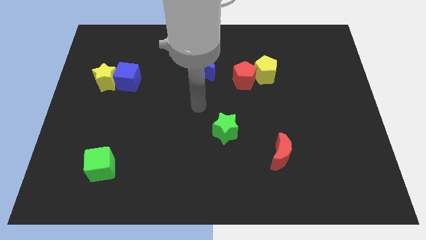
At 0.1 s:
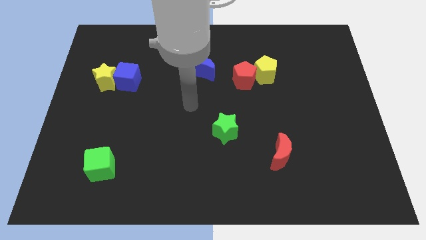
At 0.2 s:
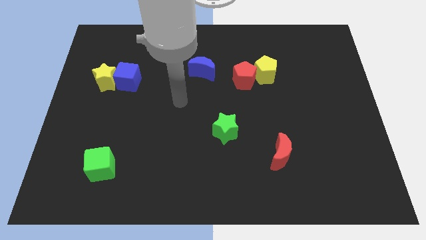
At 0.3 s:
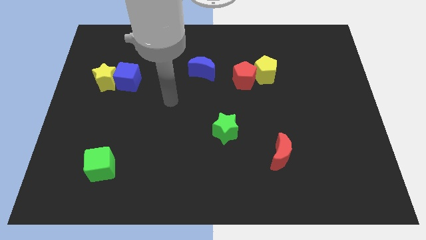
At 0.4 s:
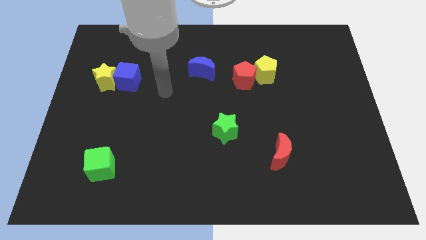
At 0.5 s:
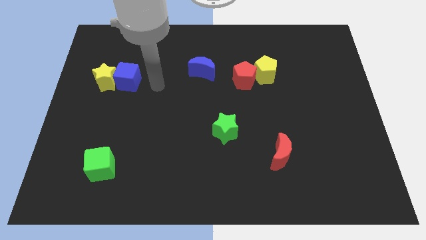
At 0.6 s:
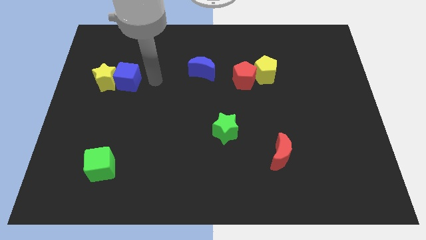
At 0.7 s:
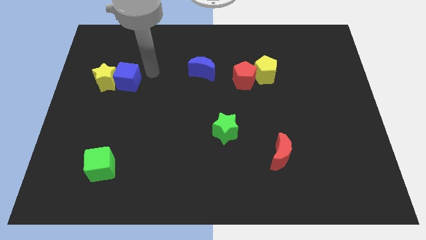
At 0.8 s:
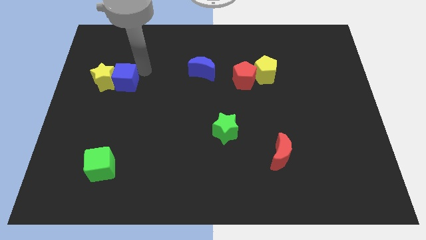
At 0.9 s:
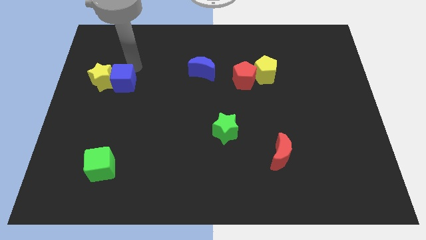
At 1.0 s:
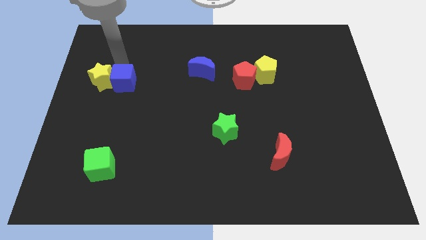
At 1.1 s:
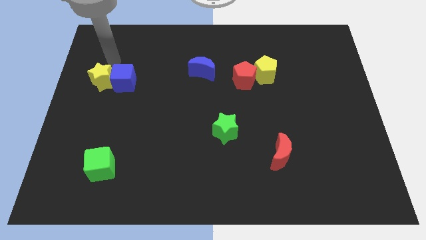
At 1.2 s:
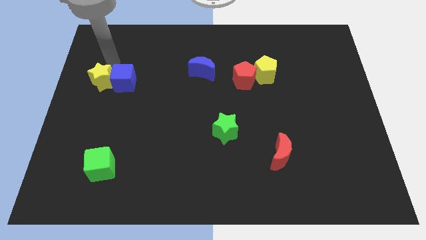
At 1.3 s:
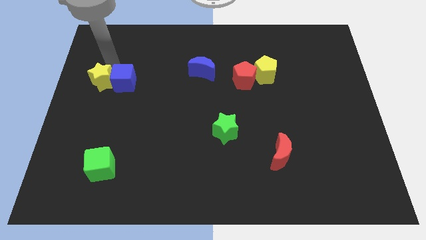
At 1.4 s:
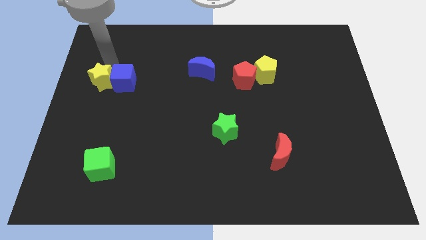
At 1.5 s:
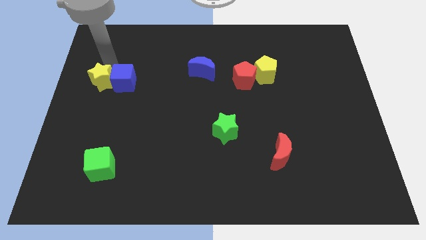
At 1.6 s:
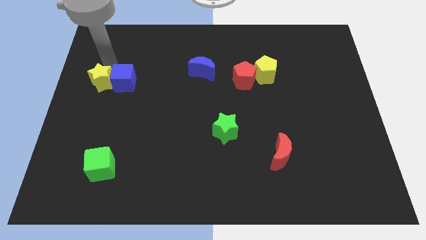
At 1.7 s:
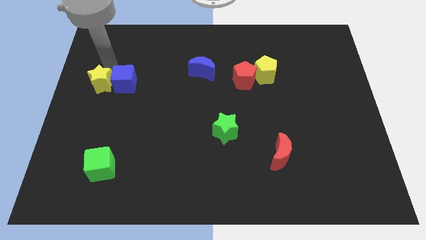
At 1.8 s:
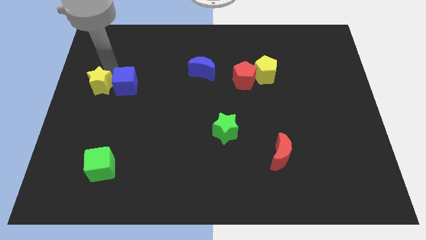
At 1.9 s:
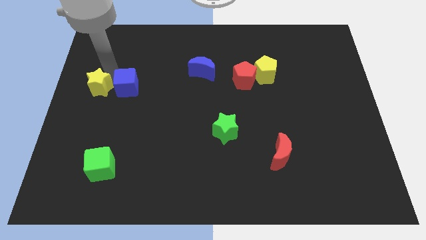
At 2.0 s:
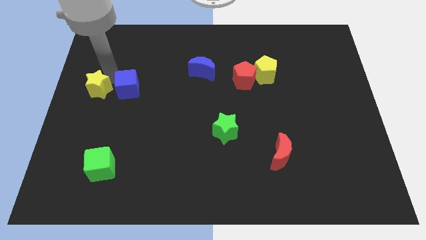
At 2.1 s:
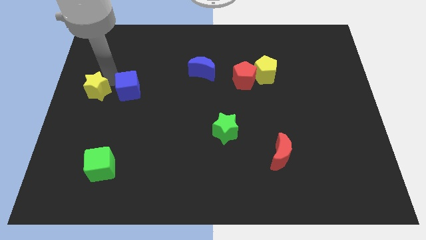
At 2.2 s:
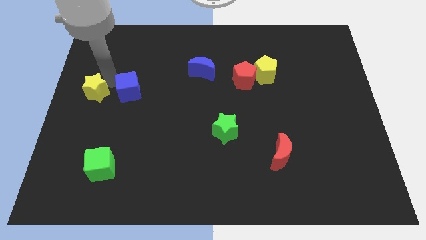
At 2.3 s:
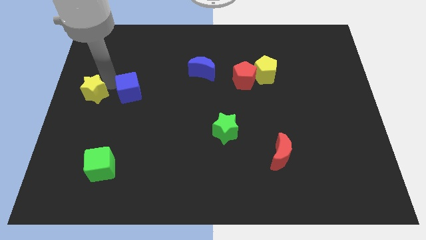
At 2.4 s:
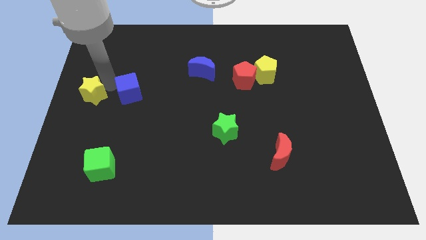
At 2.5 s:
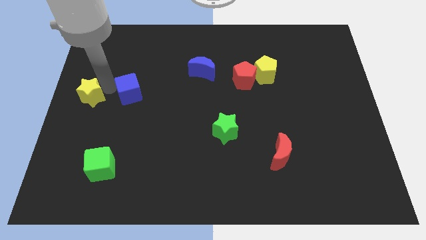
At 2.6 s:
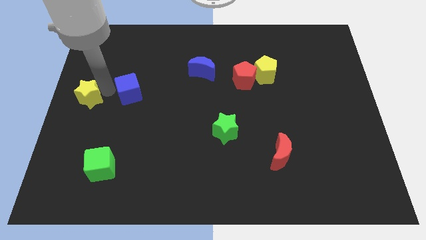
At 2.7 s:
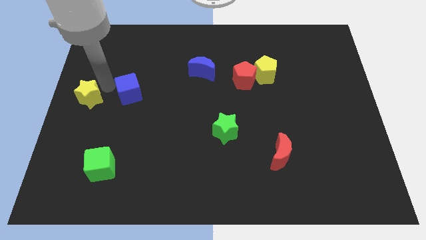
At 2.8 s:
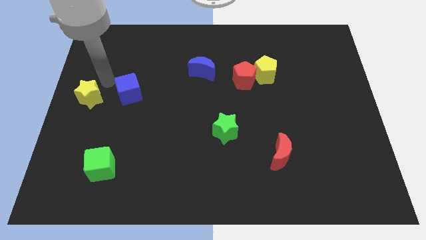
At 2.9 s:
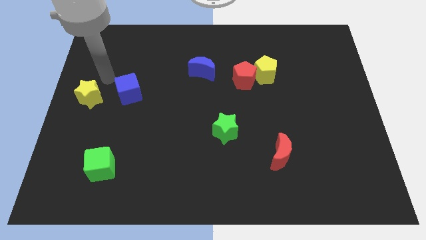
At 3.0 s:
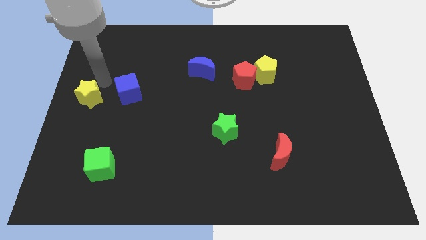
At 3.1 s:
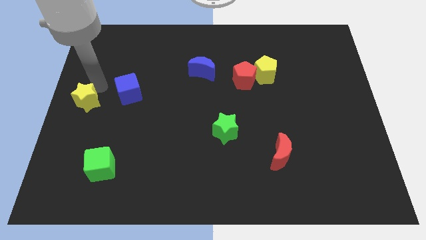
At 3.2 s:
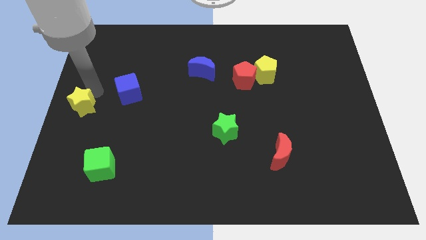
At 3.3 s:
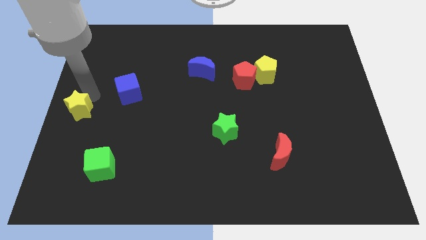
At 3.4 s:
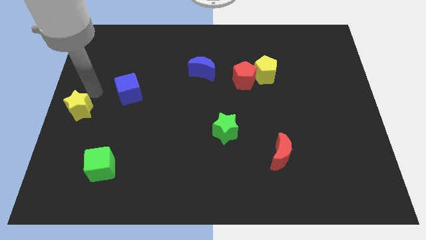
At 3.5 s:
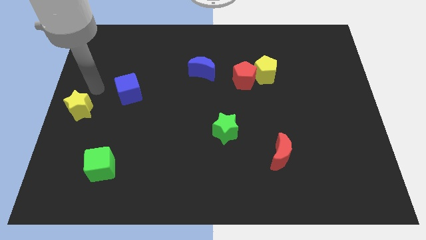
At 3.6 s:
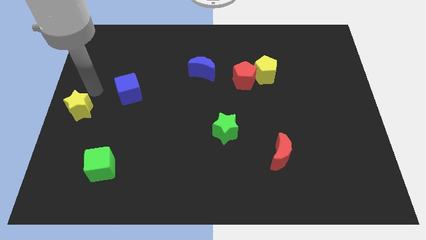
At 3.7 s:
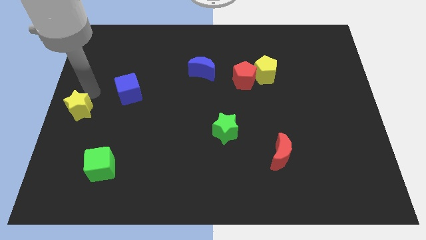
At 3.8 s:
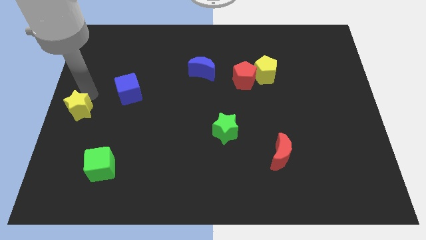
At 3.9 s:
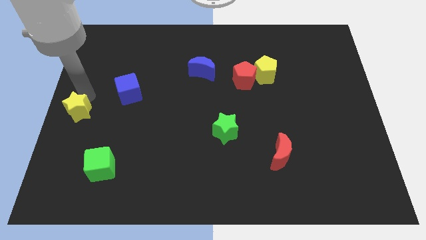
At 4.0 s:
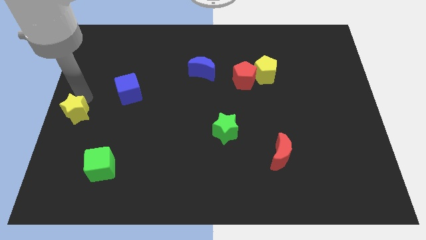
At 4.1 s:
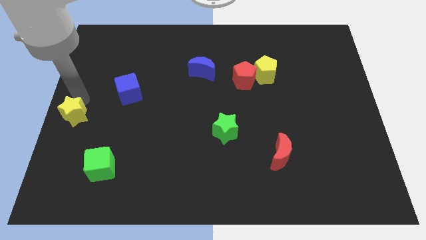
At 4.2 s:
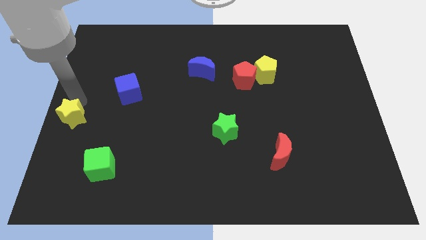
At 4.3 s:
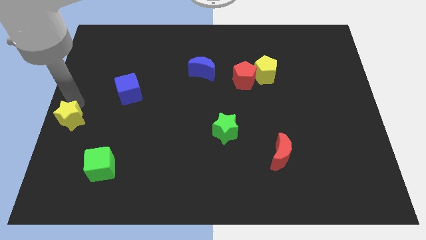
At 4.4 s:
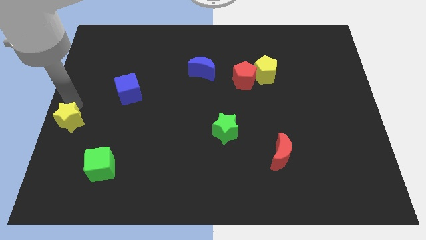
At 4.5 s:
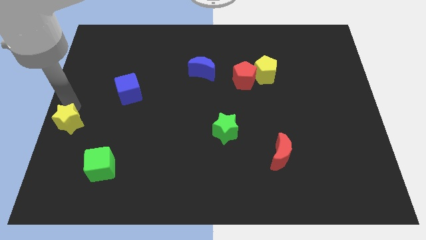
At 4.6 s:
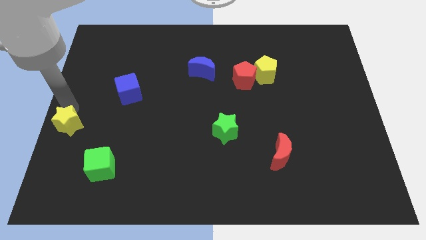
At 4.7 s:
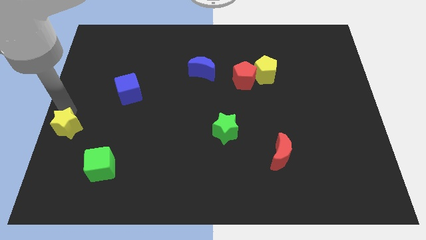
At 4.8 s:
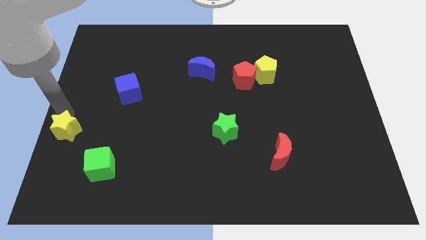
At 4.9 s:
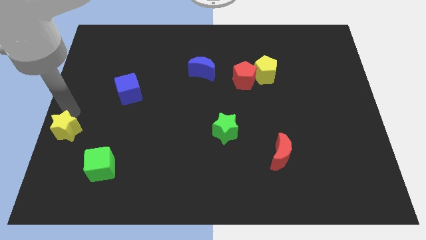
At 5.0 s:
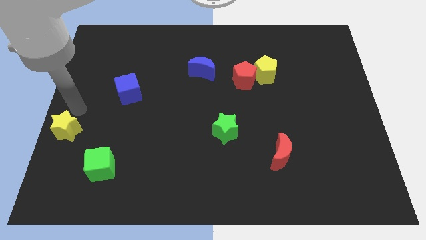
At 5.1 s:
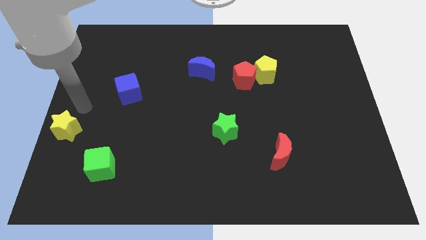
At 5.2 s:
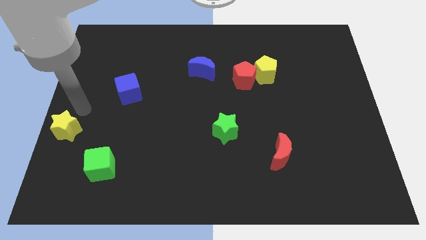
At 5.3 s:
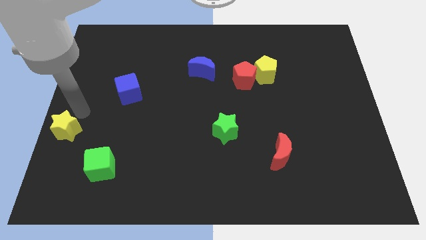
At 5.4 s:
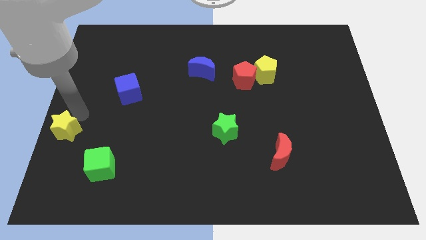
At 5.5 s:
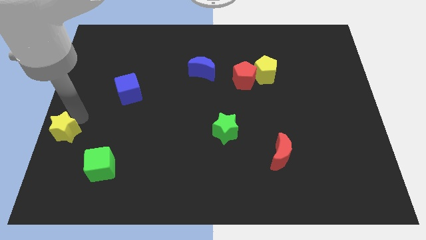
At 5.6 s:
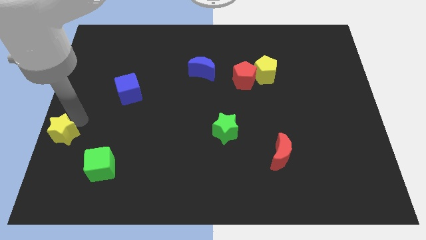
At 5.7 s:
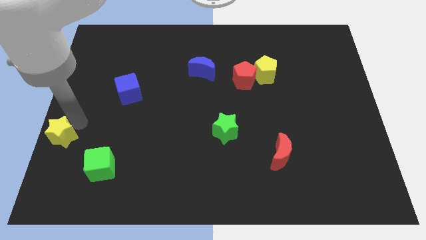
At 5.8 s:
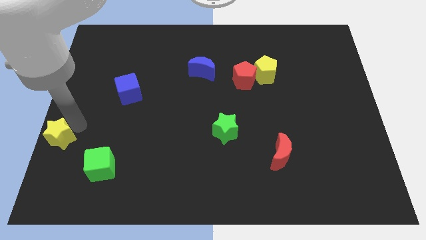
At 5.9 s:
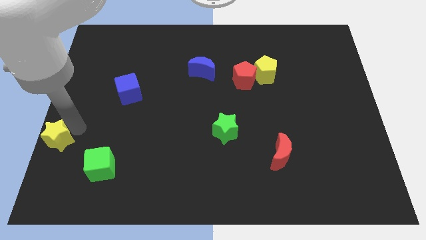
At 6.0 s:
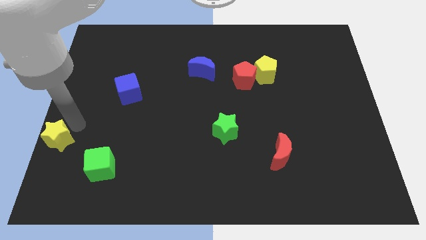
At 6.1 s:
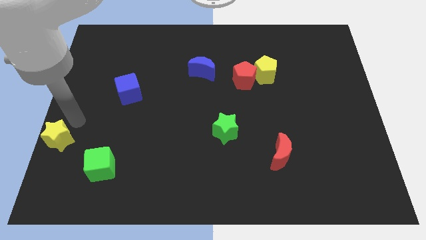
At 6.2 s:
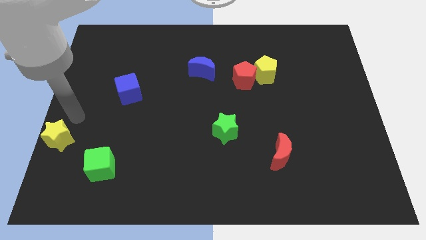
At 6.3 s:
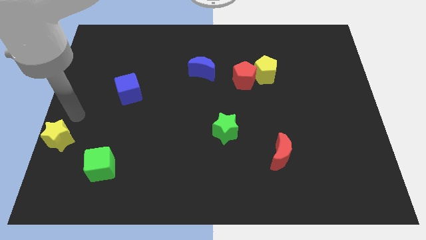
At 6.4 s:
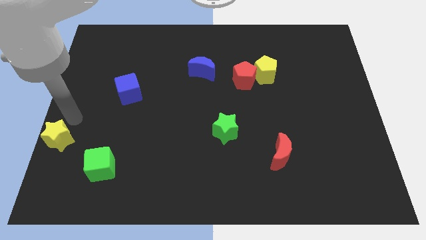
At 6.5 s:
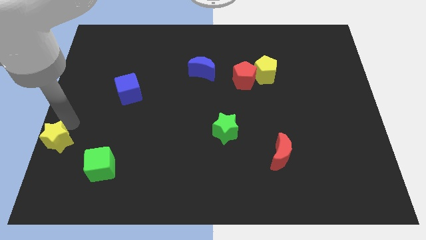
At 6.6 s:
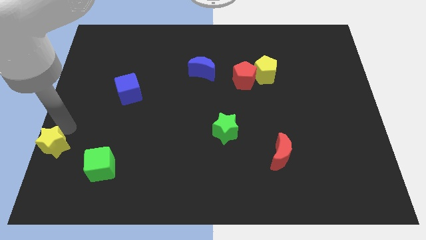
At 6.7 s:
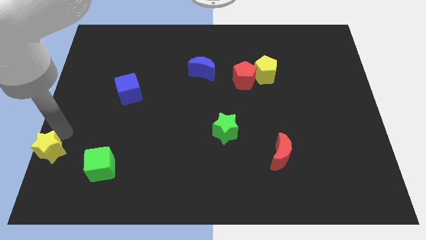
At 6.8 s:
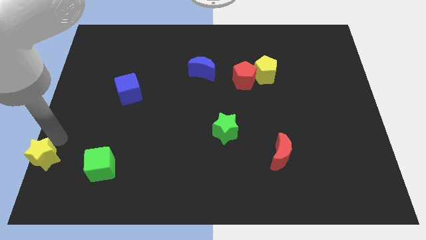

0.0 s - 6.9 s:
push the yellow star to the lower left corner
